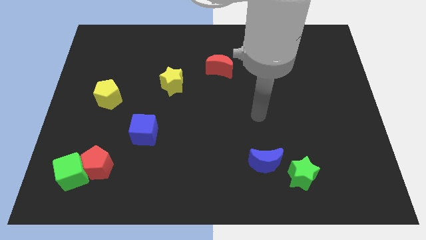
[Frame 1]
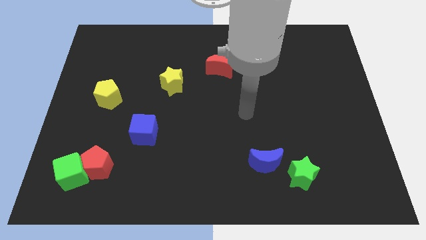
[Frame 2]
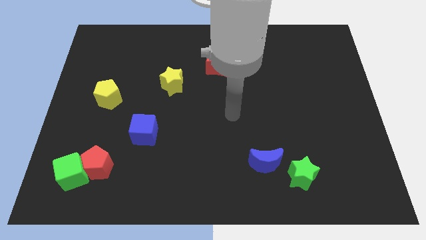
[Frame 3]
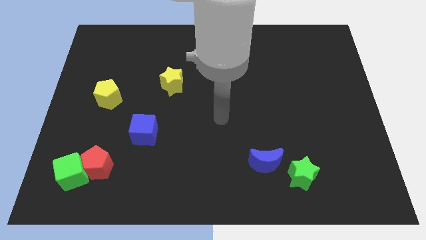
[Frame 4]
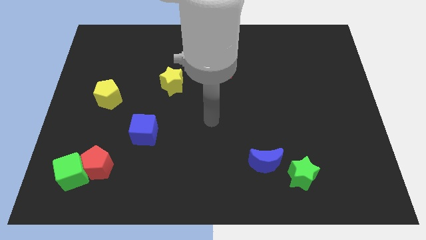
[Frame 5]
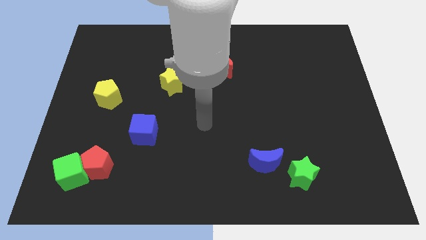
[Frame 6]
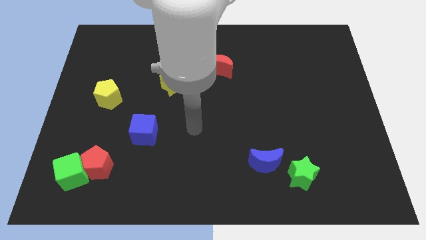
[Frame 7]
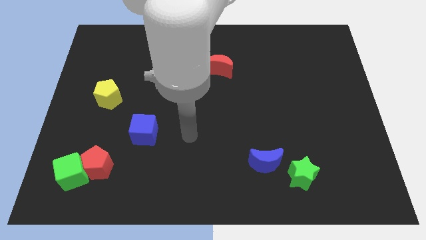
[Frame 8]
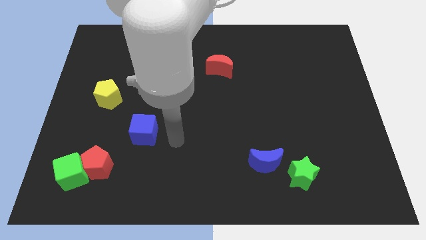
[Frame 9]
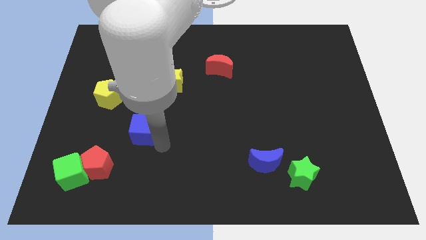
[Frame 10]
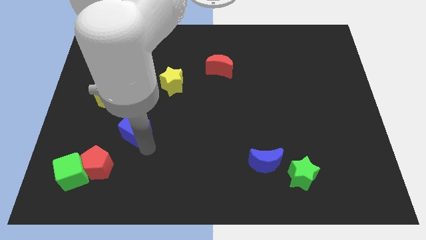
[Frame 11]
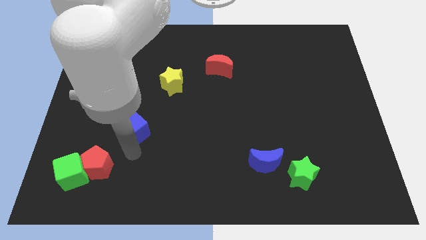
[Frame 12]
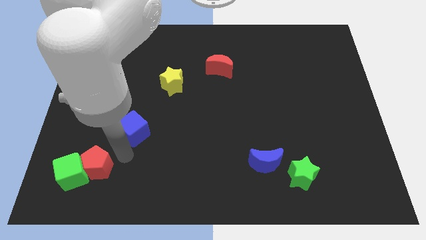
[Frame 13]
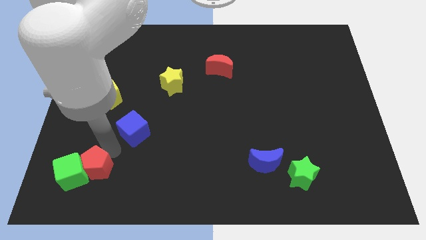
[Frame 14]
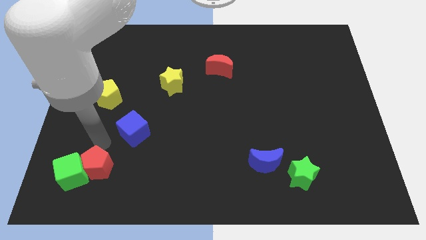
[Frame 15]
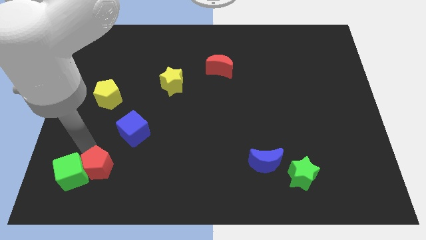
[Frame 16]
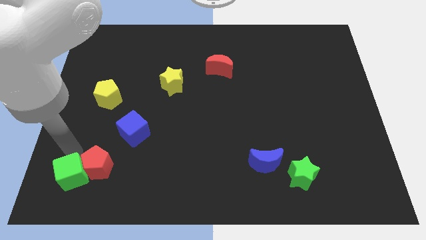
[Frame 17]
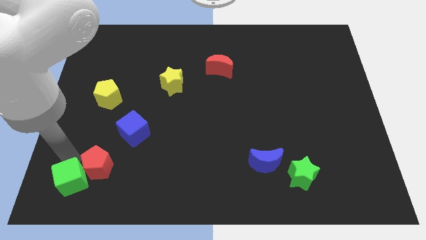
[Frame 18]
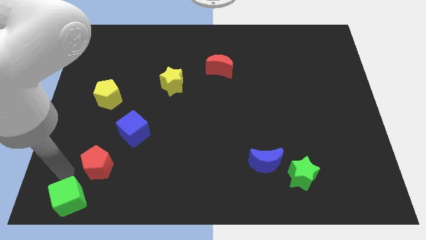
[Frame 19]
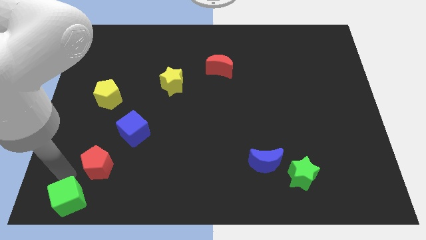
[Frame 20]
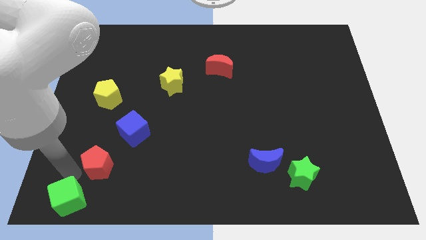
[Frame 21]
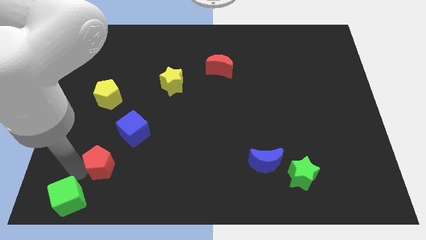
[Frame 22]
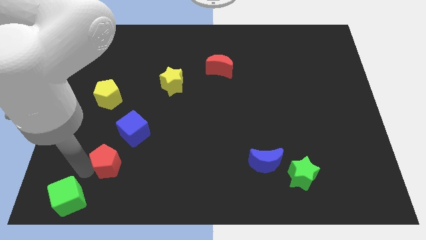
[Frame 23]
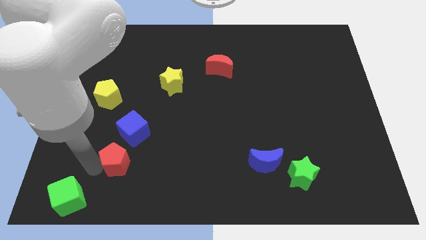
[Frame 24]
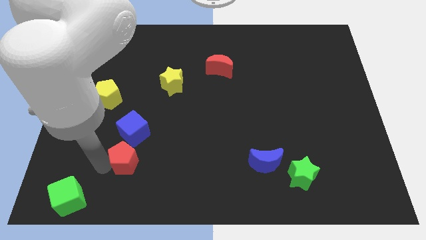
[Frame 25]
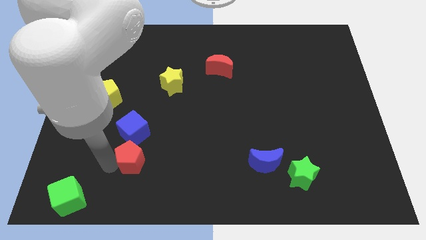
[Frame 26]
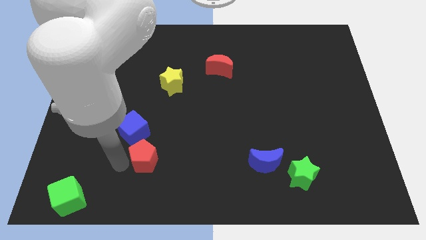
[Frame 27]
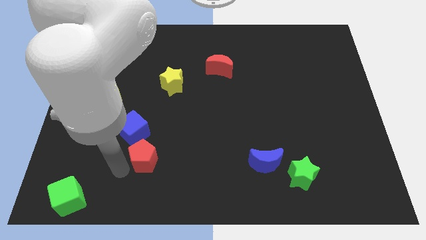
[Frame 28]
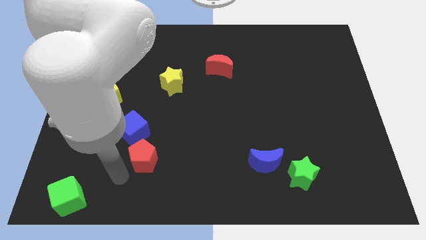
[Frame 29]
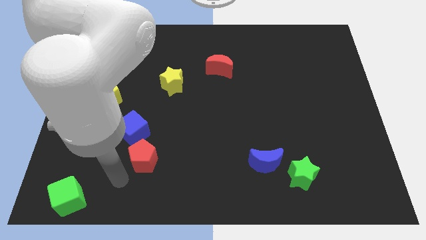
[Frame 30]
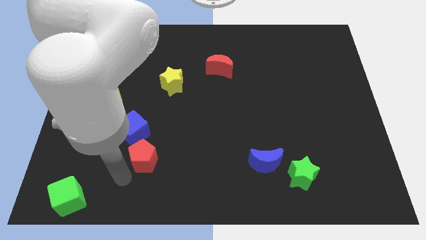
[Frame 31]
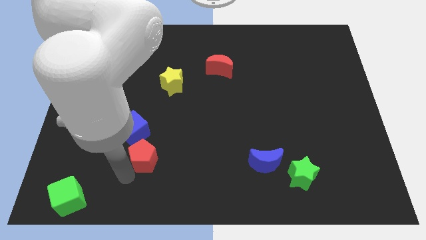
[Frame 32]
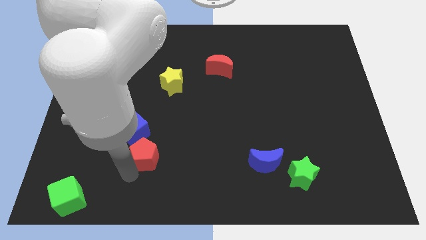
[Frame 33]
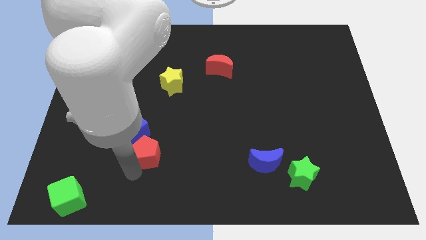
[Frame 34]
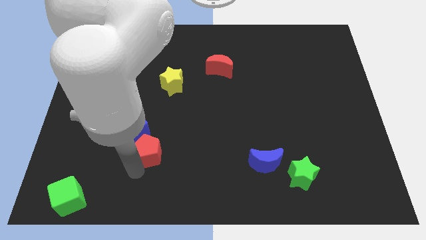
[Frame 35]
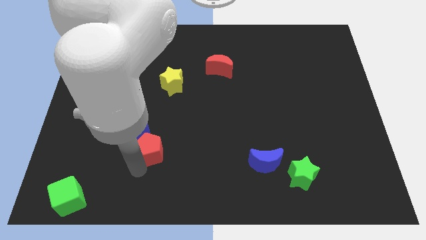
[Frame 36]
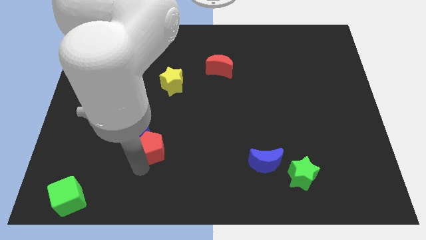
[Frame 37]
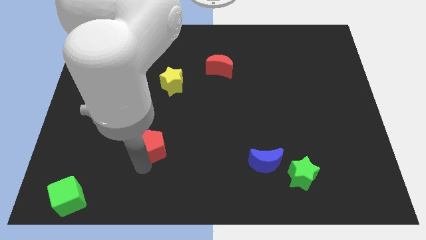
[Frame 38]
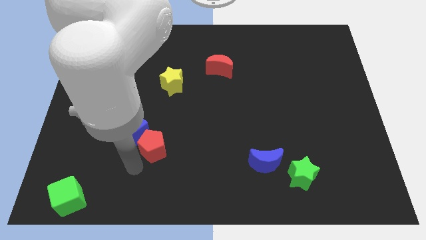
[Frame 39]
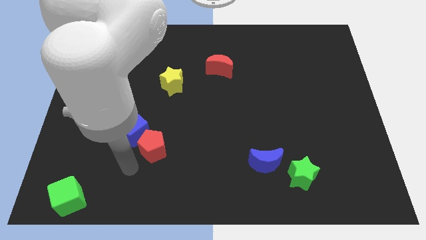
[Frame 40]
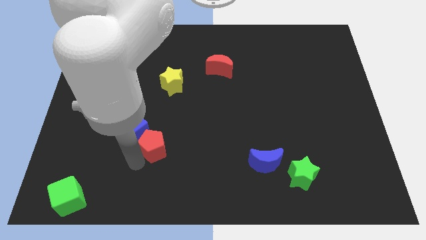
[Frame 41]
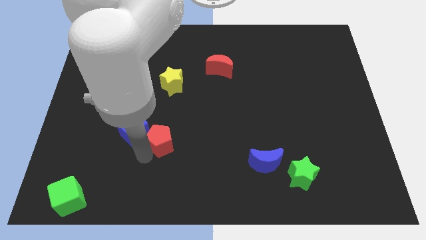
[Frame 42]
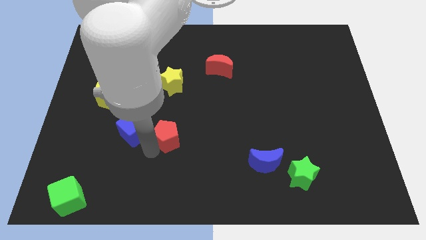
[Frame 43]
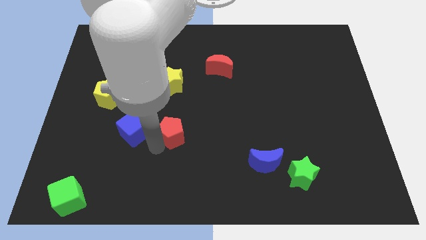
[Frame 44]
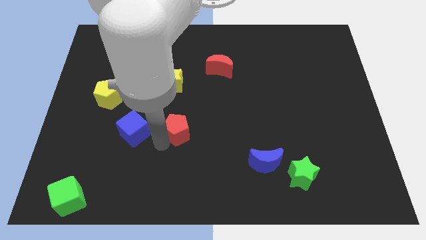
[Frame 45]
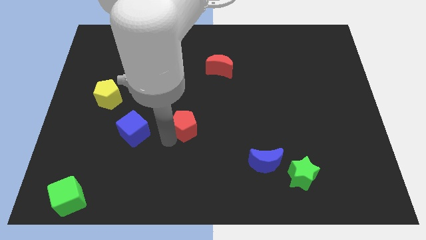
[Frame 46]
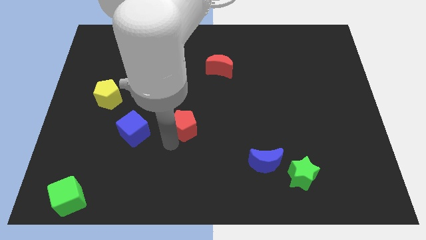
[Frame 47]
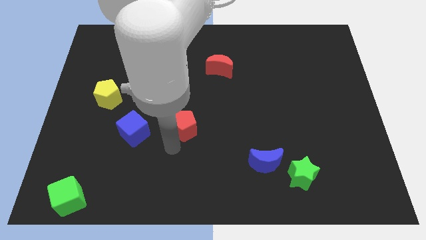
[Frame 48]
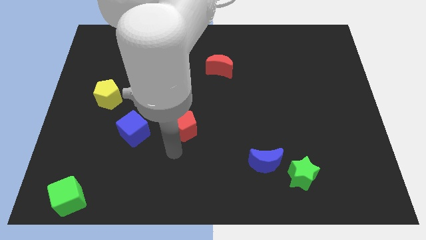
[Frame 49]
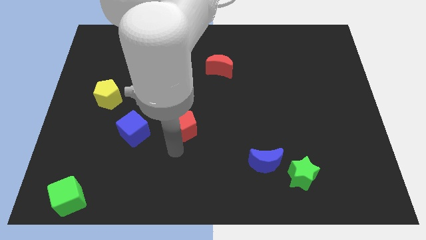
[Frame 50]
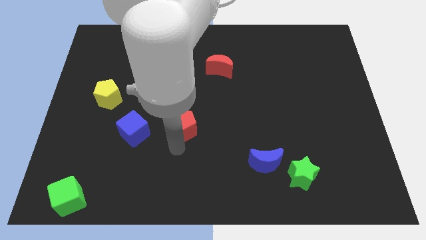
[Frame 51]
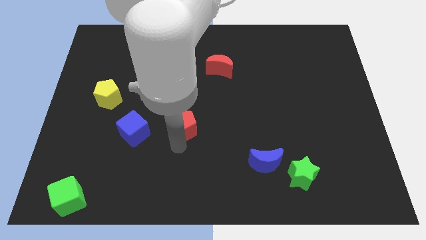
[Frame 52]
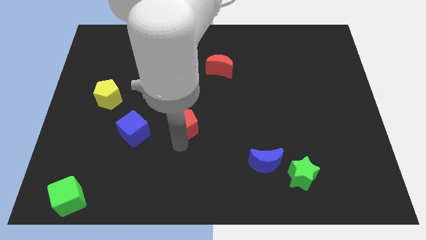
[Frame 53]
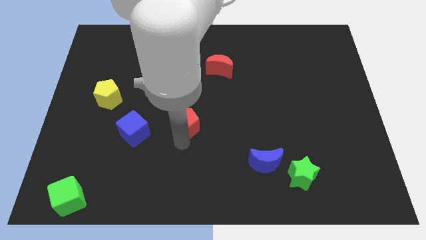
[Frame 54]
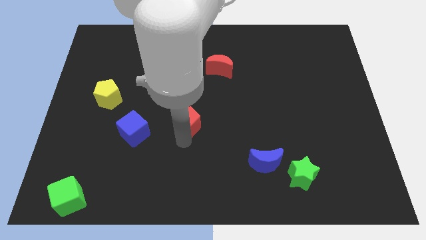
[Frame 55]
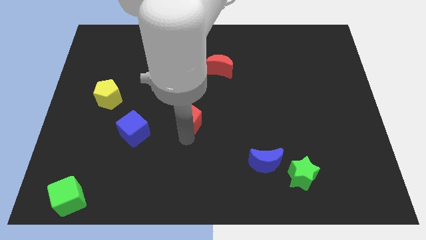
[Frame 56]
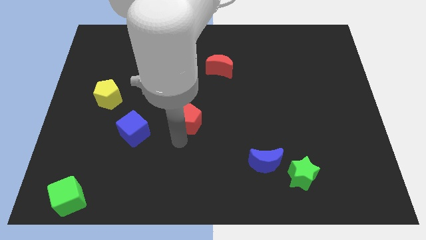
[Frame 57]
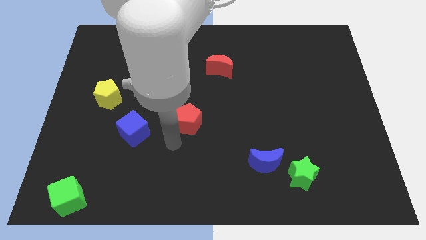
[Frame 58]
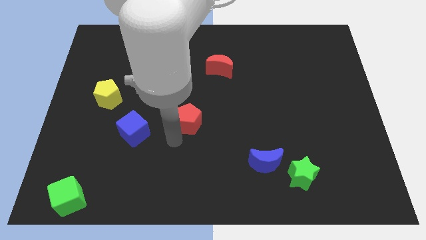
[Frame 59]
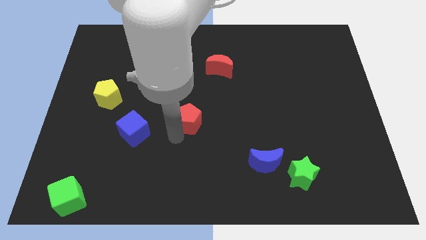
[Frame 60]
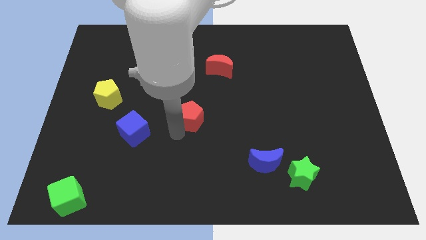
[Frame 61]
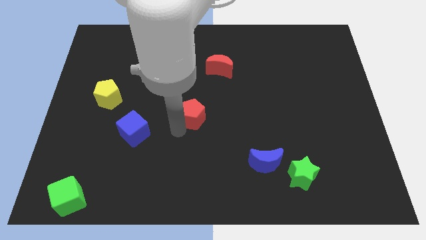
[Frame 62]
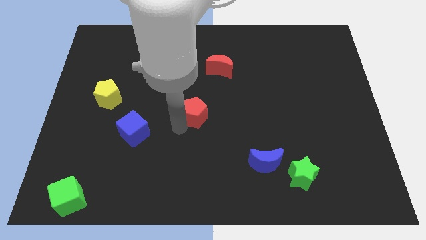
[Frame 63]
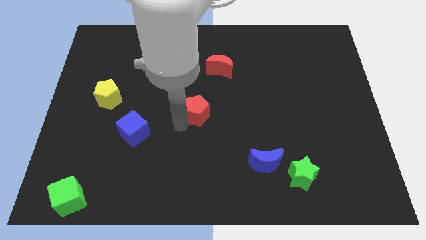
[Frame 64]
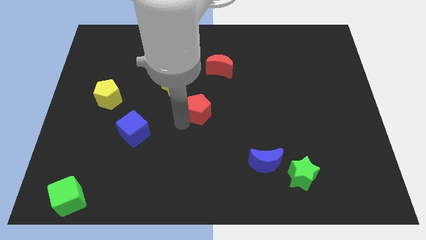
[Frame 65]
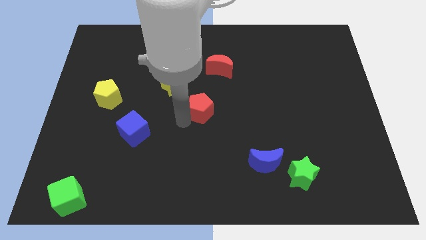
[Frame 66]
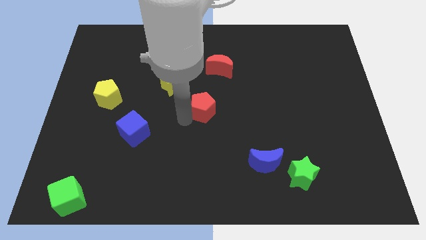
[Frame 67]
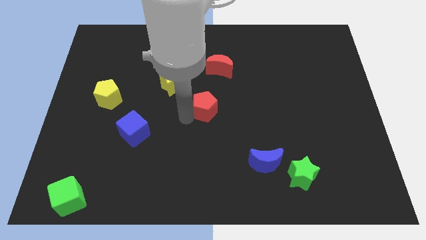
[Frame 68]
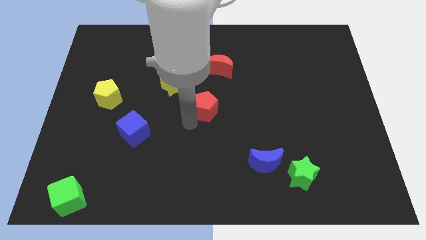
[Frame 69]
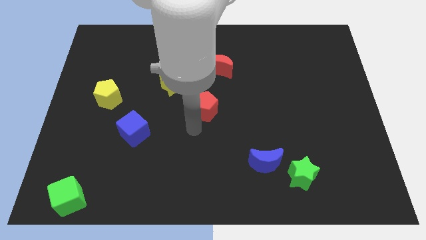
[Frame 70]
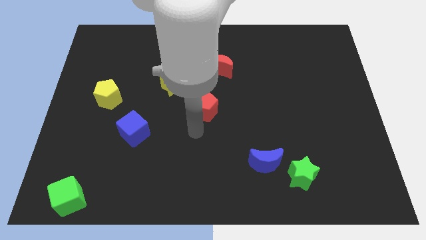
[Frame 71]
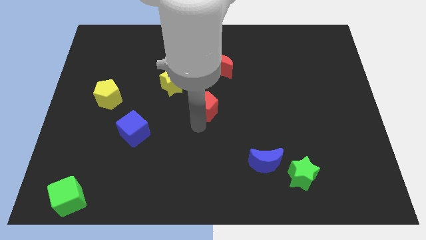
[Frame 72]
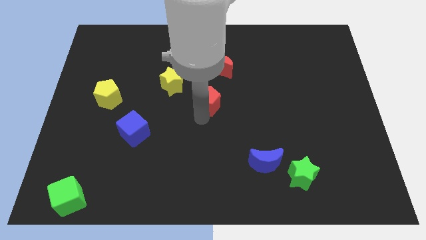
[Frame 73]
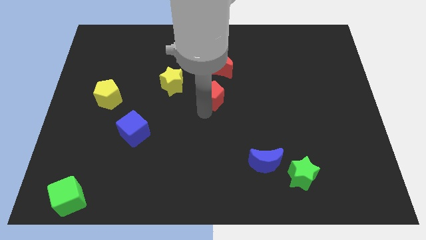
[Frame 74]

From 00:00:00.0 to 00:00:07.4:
put the red pentagon to the right side of the yellow star
